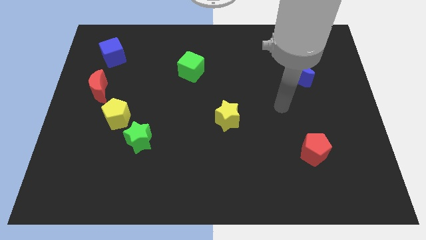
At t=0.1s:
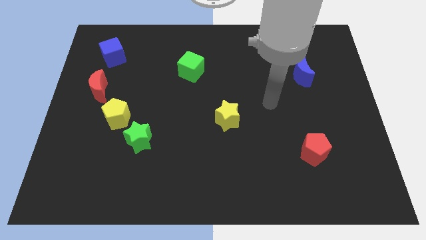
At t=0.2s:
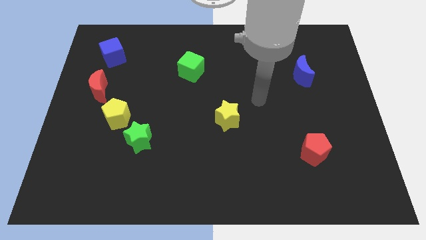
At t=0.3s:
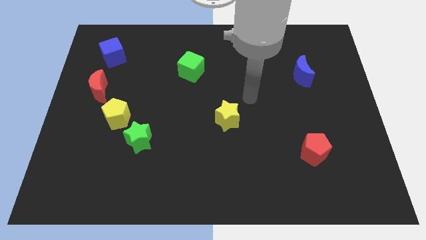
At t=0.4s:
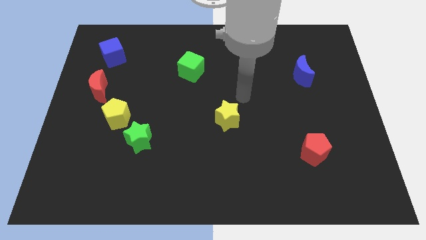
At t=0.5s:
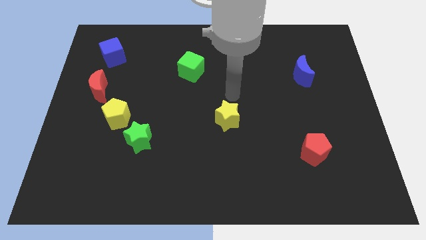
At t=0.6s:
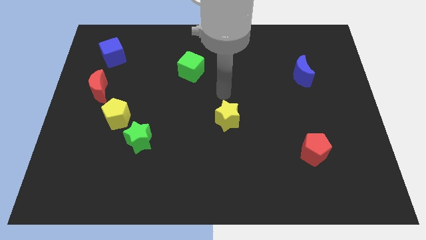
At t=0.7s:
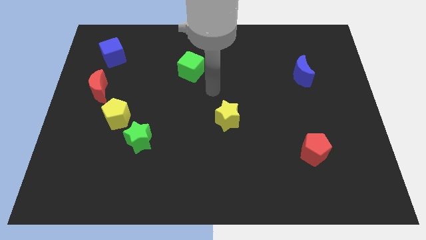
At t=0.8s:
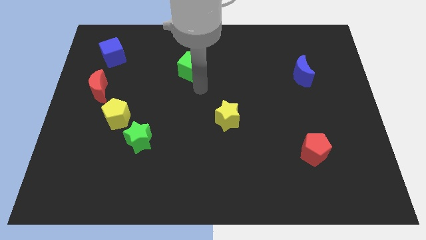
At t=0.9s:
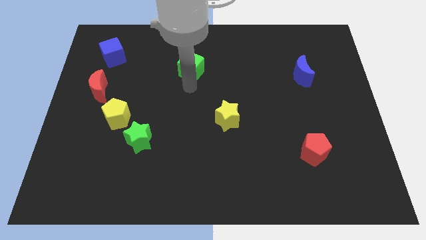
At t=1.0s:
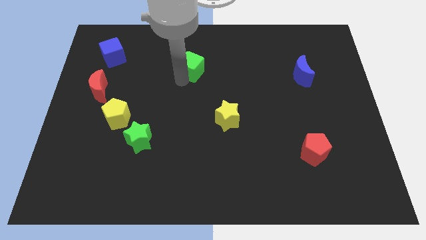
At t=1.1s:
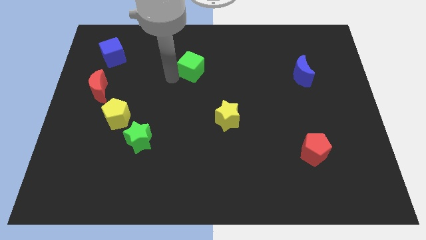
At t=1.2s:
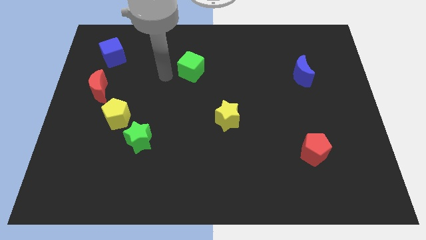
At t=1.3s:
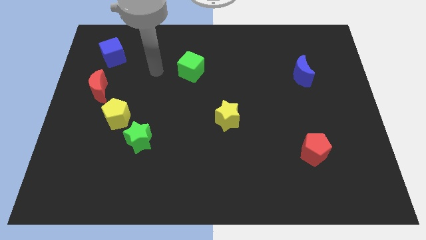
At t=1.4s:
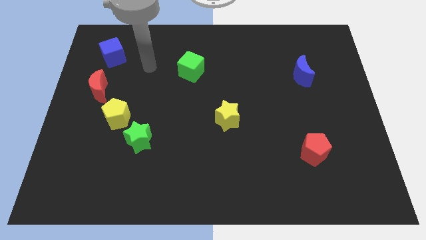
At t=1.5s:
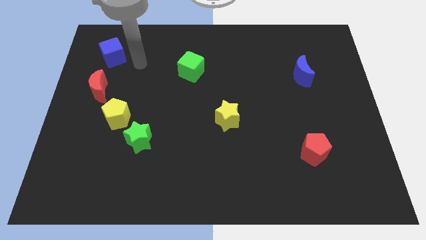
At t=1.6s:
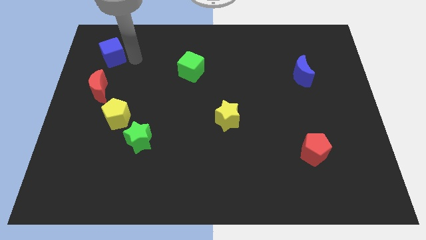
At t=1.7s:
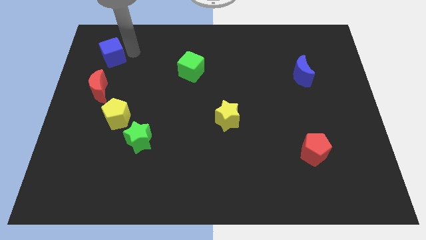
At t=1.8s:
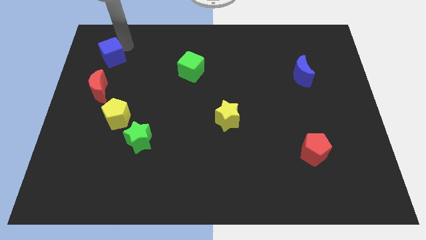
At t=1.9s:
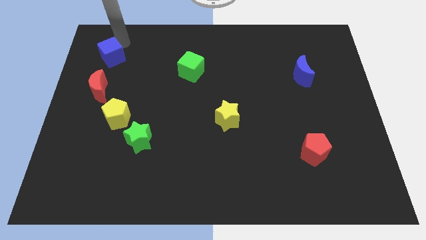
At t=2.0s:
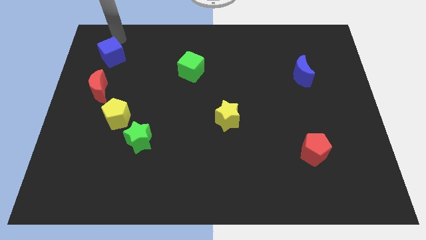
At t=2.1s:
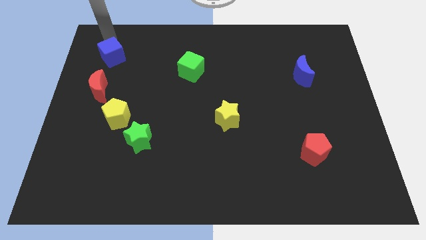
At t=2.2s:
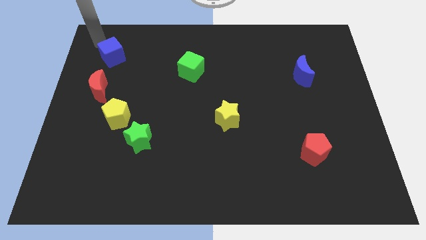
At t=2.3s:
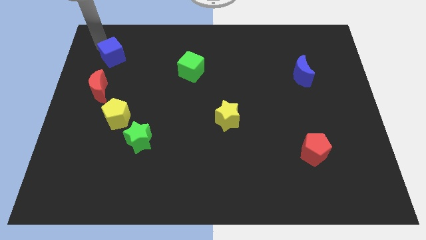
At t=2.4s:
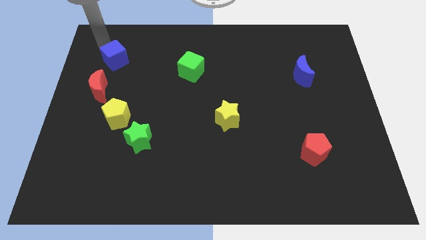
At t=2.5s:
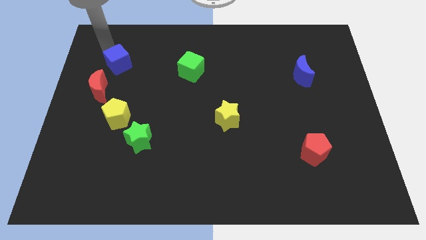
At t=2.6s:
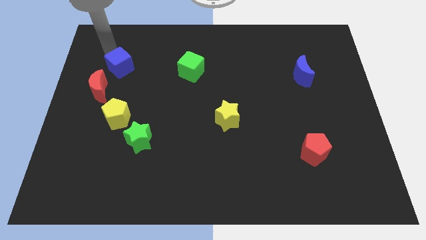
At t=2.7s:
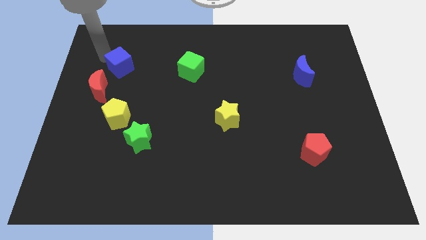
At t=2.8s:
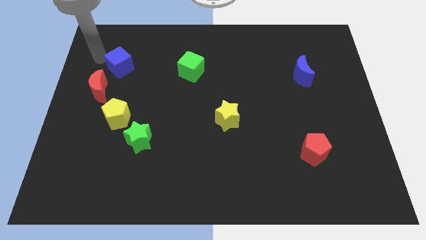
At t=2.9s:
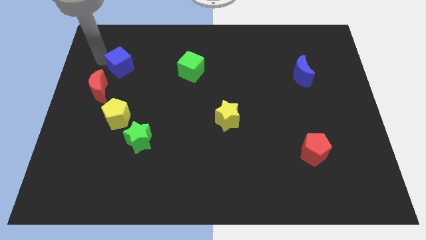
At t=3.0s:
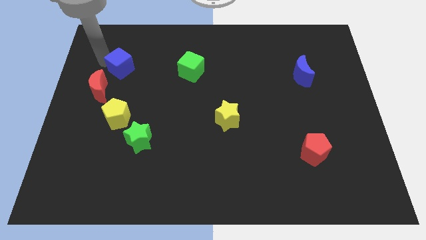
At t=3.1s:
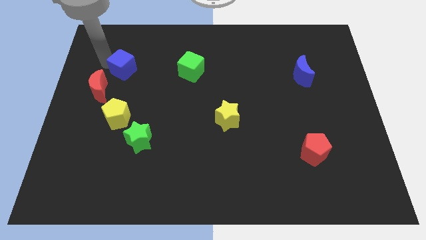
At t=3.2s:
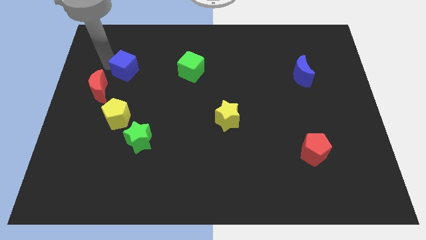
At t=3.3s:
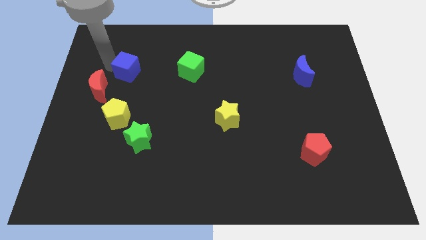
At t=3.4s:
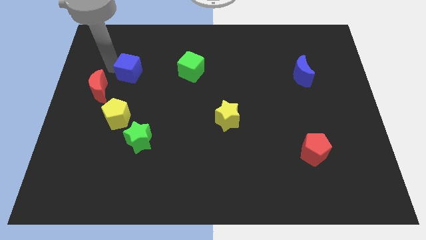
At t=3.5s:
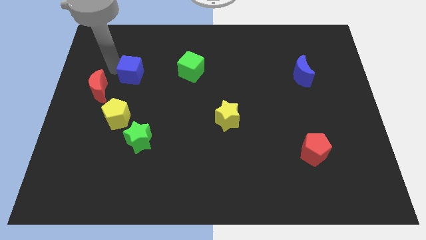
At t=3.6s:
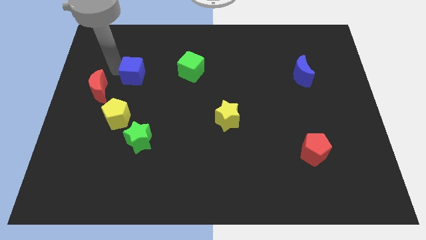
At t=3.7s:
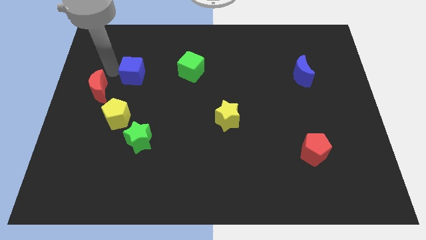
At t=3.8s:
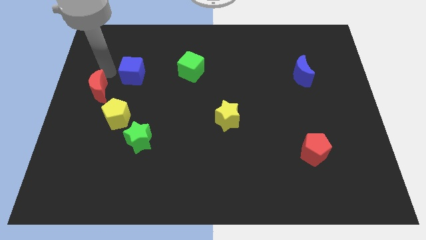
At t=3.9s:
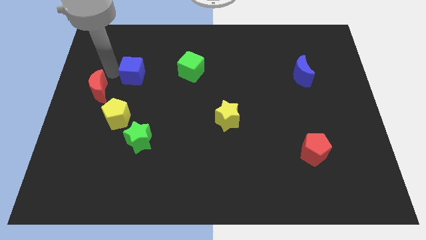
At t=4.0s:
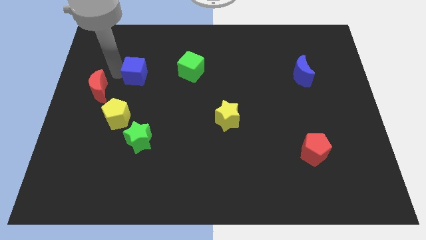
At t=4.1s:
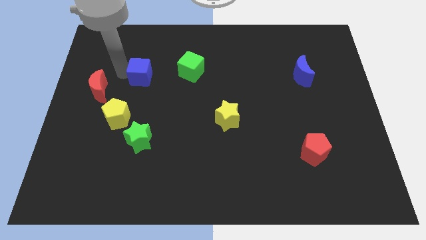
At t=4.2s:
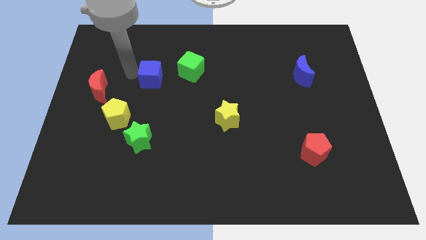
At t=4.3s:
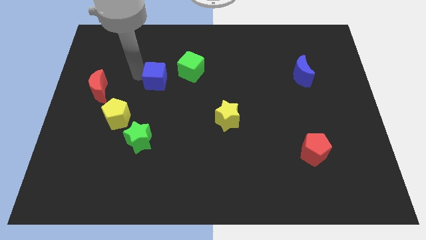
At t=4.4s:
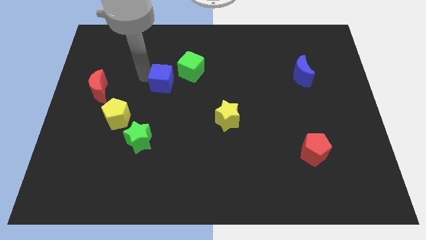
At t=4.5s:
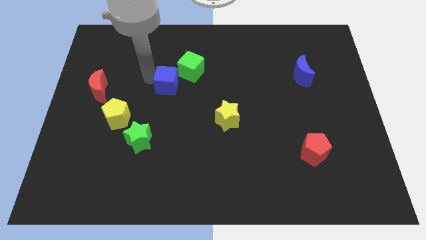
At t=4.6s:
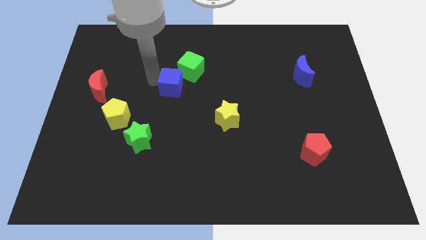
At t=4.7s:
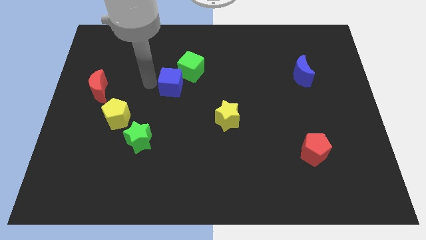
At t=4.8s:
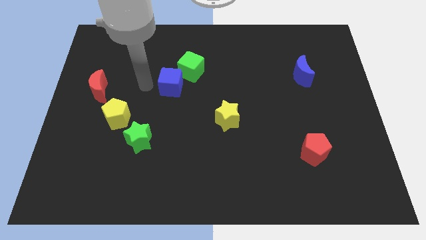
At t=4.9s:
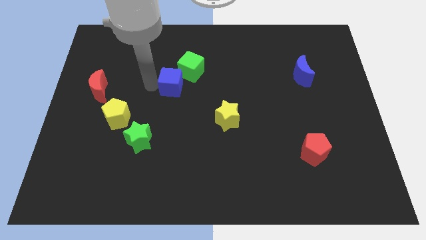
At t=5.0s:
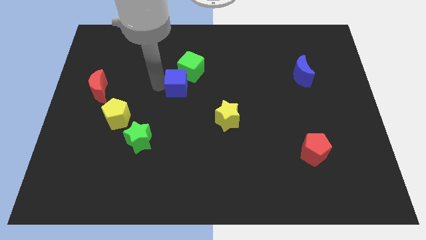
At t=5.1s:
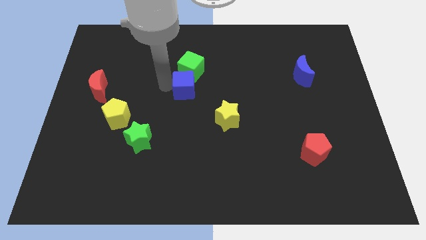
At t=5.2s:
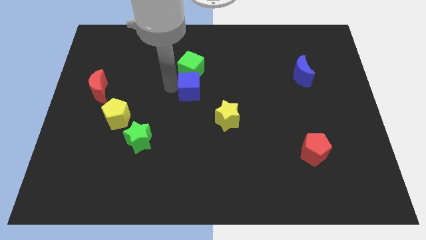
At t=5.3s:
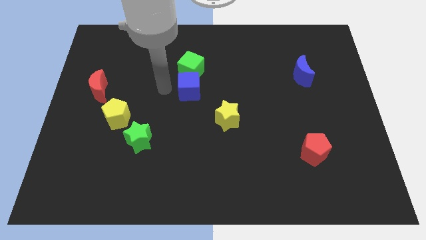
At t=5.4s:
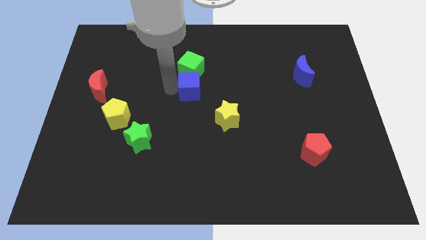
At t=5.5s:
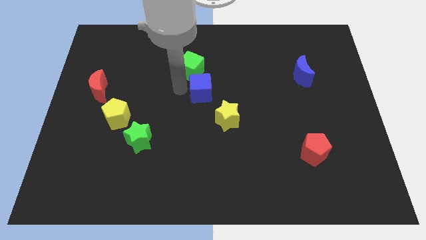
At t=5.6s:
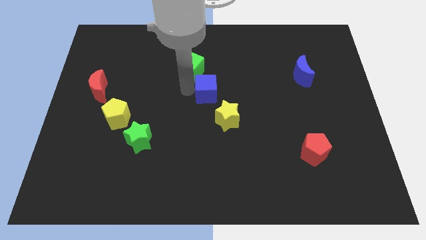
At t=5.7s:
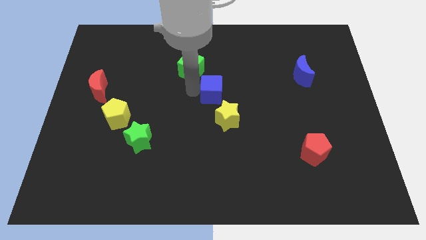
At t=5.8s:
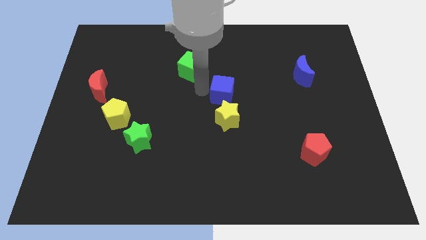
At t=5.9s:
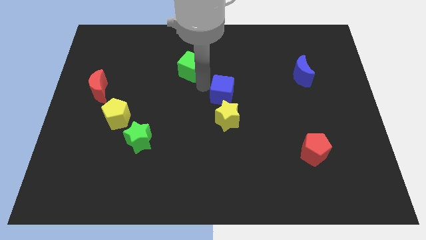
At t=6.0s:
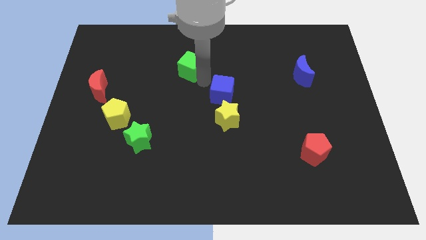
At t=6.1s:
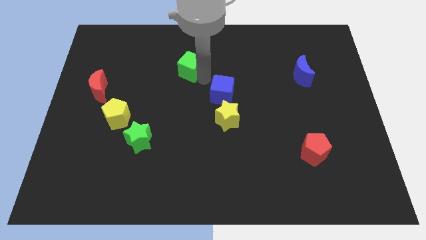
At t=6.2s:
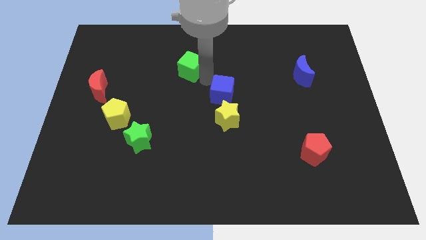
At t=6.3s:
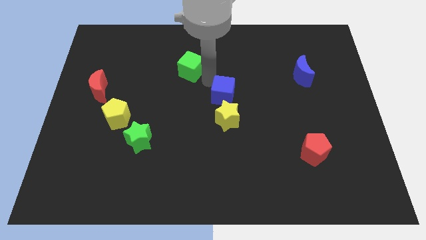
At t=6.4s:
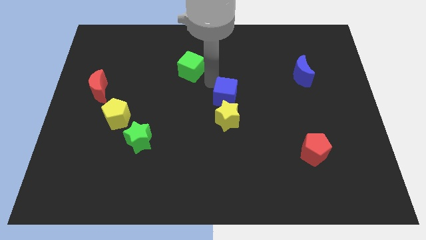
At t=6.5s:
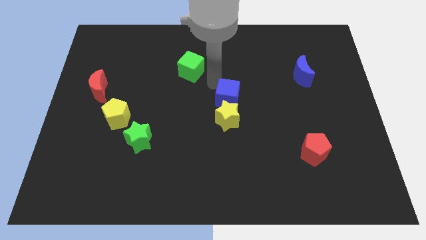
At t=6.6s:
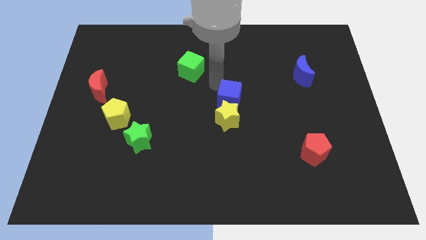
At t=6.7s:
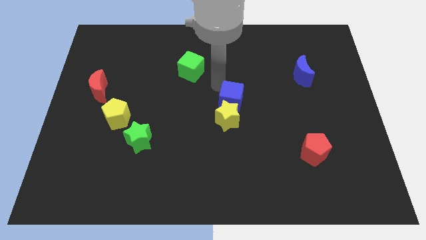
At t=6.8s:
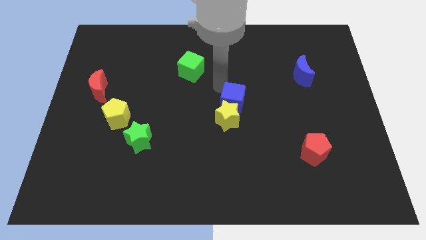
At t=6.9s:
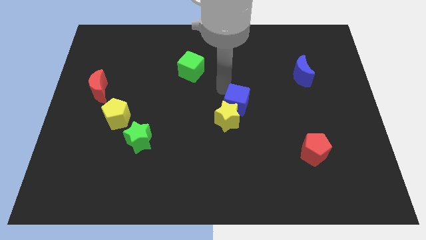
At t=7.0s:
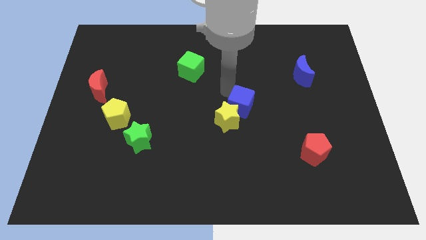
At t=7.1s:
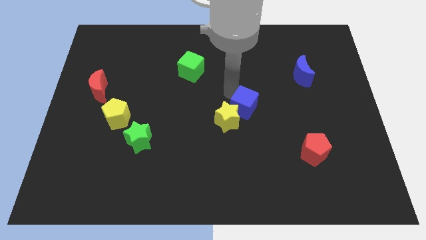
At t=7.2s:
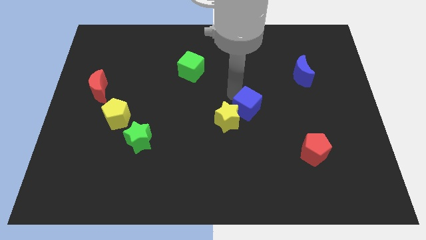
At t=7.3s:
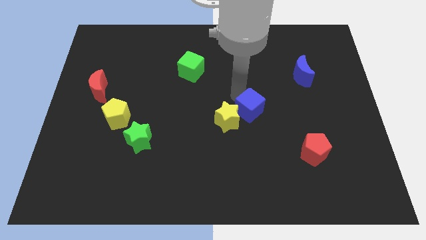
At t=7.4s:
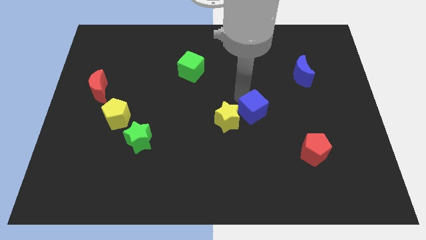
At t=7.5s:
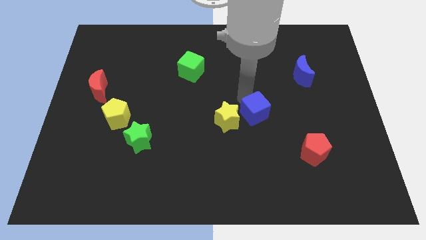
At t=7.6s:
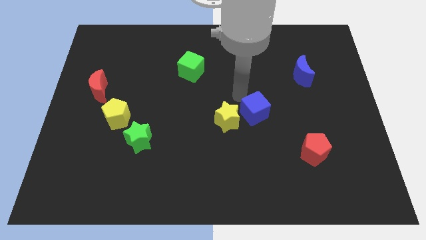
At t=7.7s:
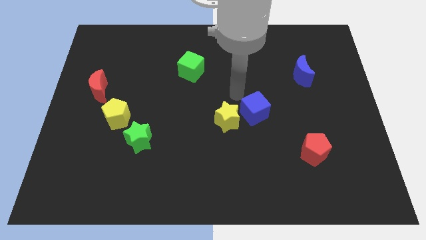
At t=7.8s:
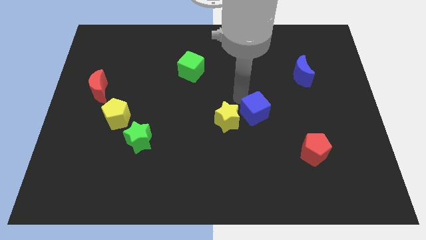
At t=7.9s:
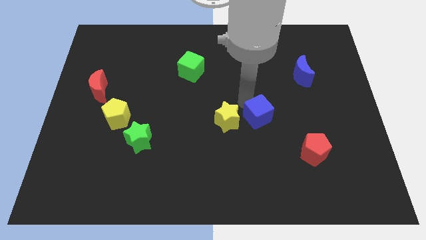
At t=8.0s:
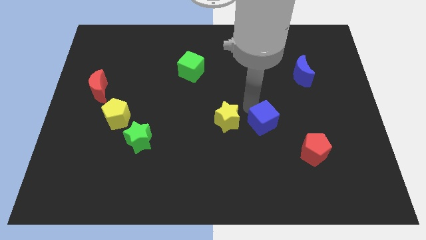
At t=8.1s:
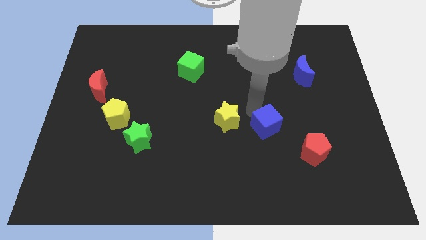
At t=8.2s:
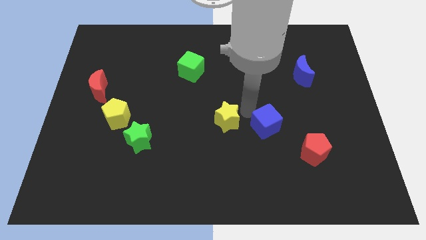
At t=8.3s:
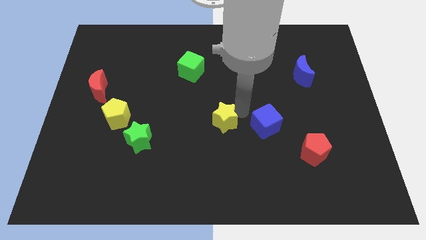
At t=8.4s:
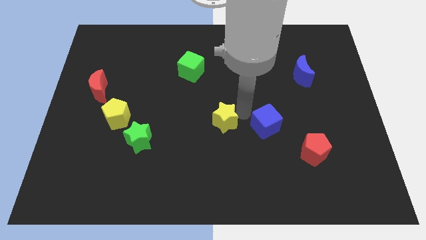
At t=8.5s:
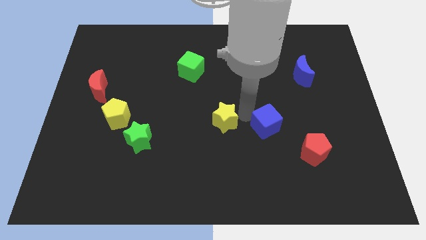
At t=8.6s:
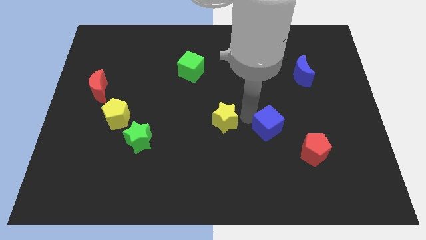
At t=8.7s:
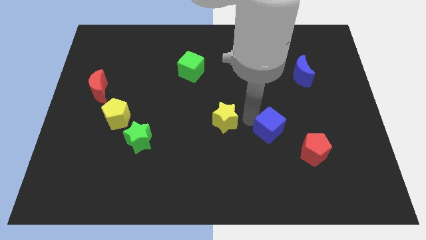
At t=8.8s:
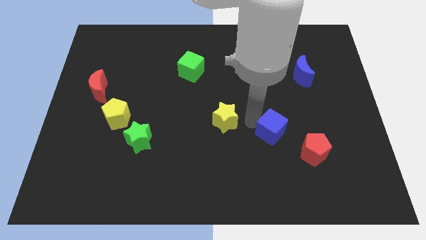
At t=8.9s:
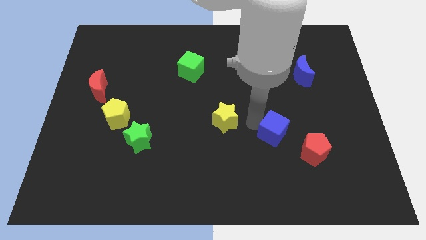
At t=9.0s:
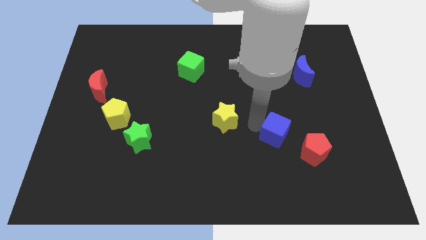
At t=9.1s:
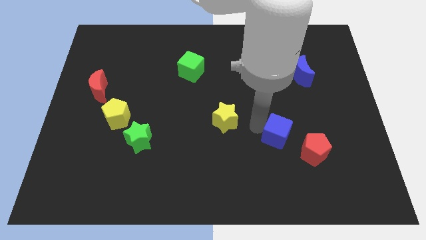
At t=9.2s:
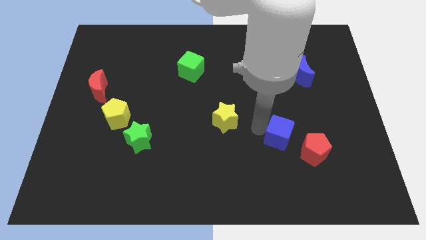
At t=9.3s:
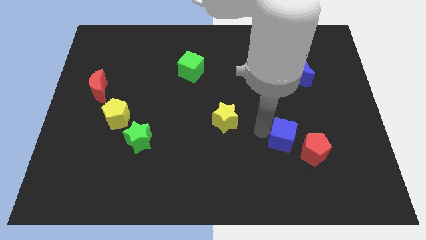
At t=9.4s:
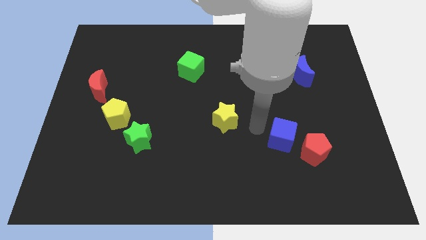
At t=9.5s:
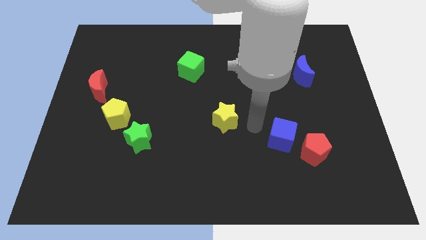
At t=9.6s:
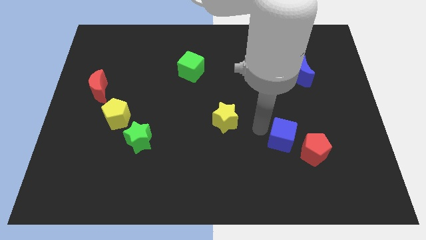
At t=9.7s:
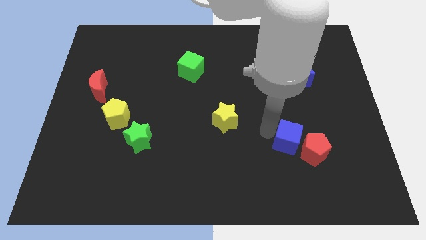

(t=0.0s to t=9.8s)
slide the blue cube close to the red pentagon
